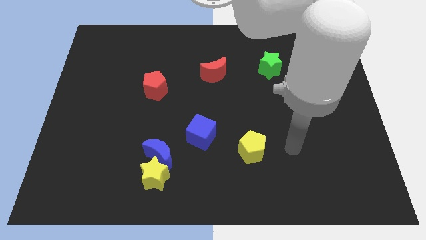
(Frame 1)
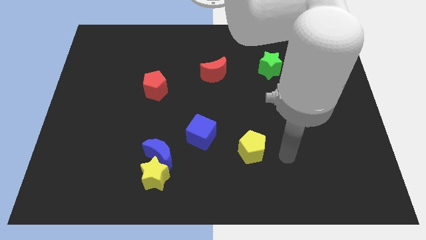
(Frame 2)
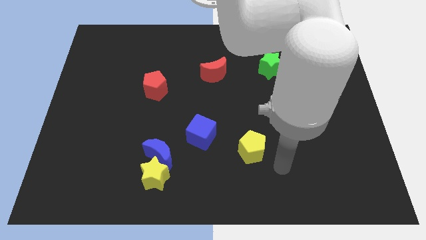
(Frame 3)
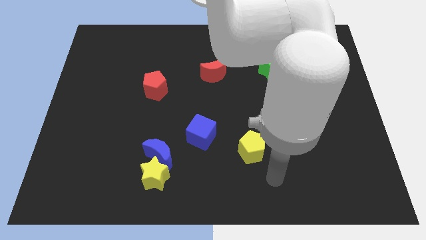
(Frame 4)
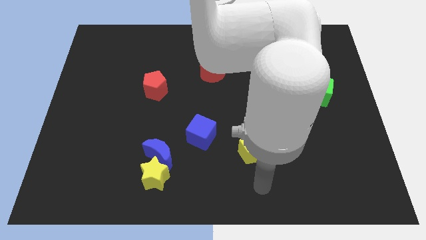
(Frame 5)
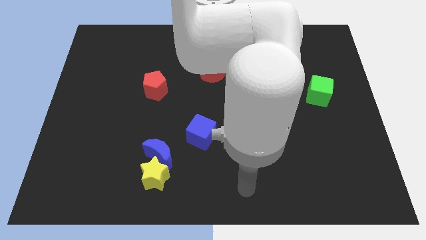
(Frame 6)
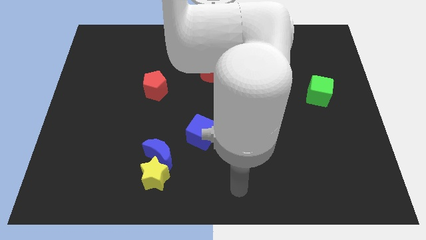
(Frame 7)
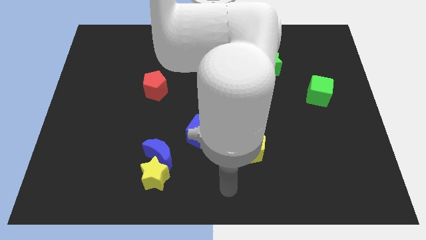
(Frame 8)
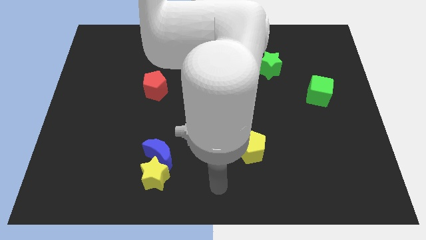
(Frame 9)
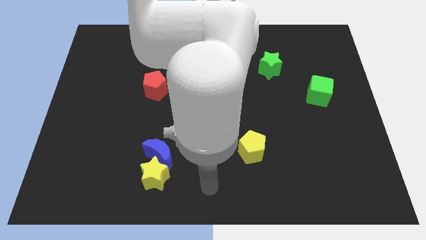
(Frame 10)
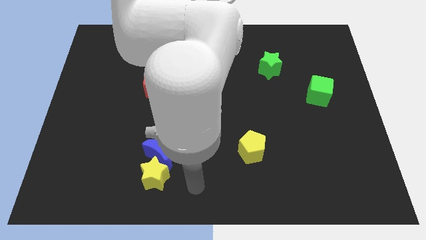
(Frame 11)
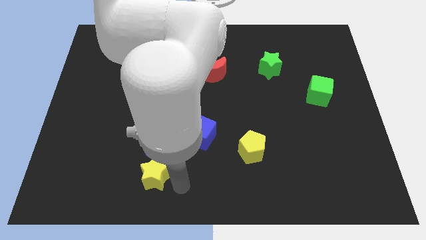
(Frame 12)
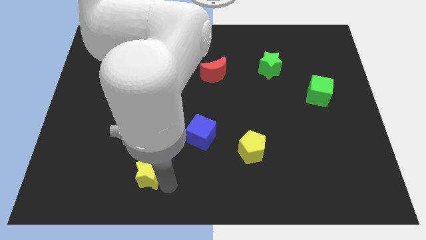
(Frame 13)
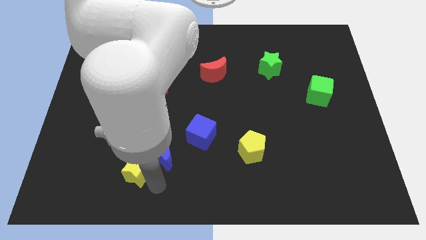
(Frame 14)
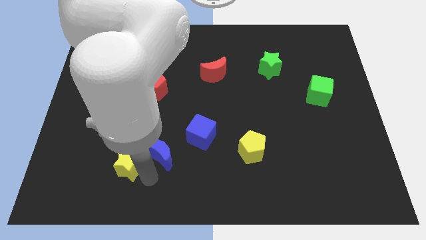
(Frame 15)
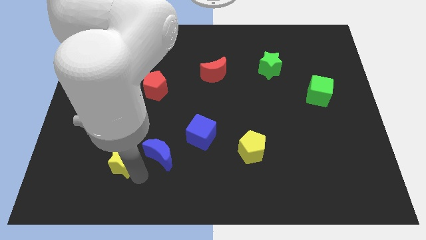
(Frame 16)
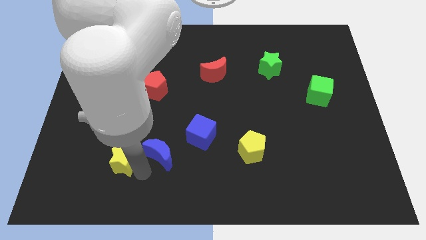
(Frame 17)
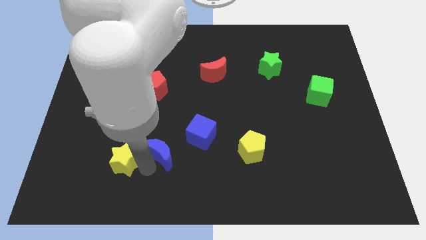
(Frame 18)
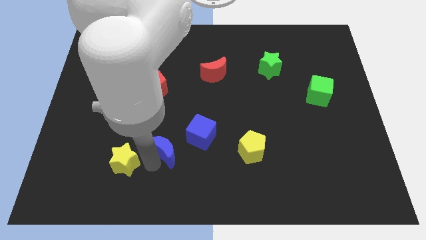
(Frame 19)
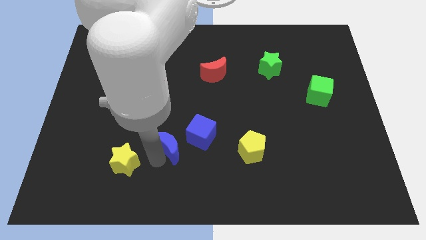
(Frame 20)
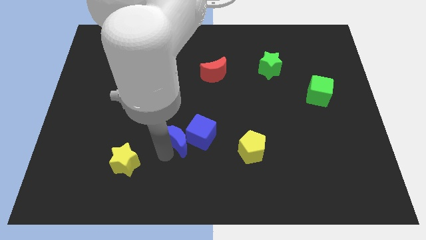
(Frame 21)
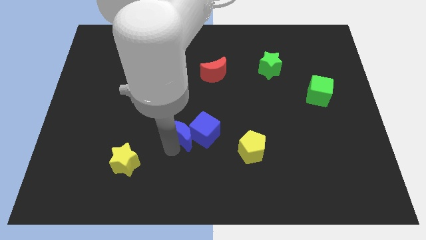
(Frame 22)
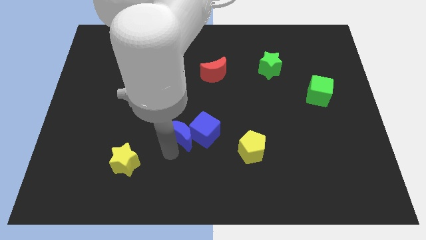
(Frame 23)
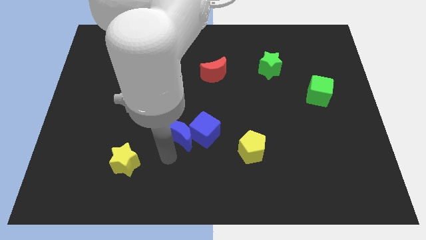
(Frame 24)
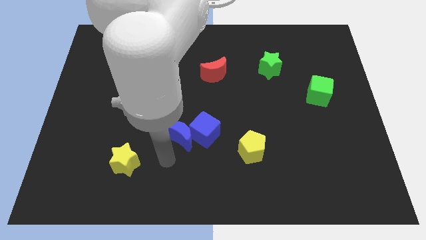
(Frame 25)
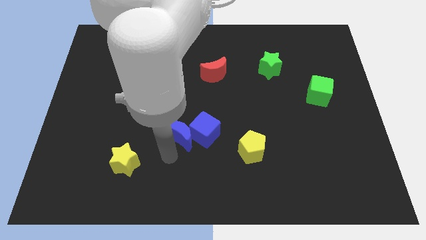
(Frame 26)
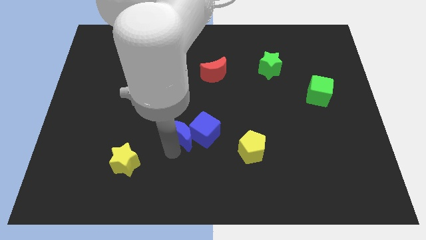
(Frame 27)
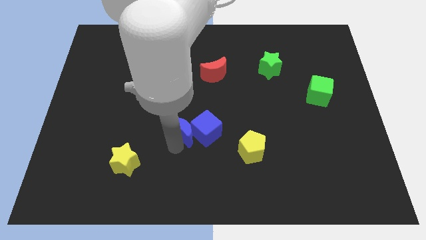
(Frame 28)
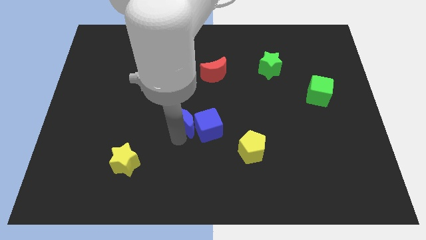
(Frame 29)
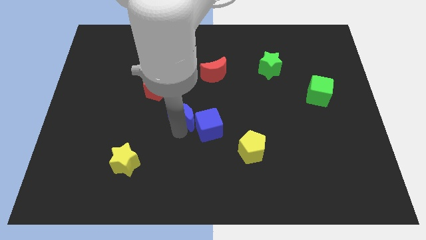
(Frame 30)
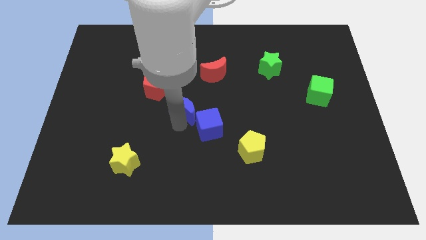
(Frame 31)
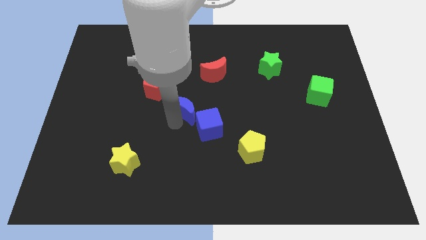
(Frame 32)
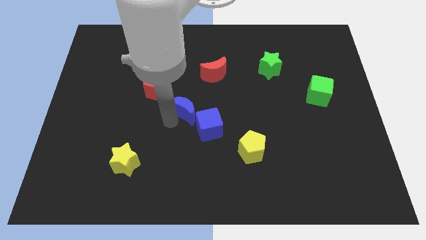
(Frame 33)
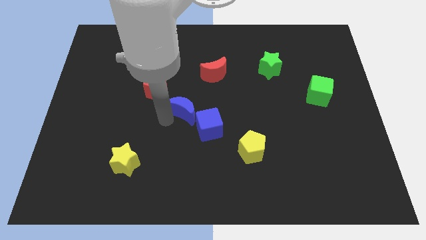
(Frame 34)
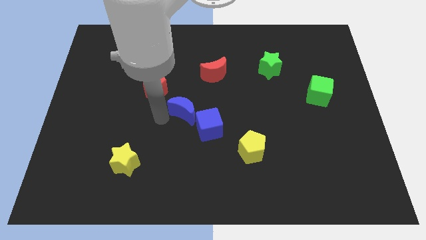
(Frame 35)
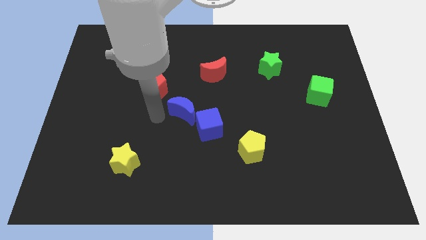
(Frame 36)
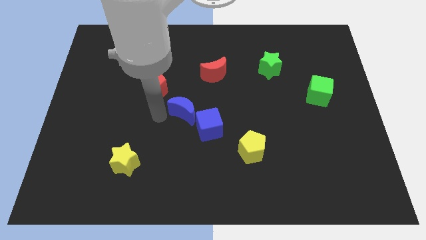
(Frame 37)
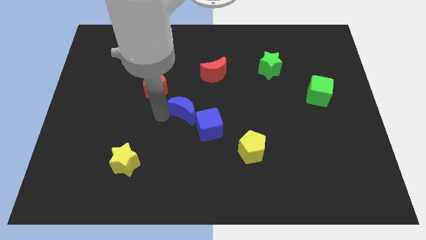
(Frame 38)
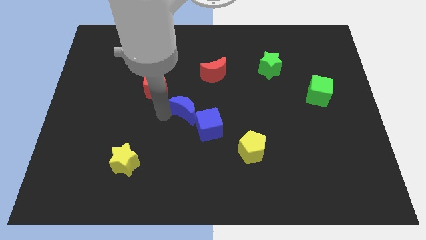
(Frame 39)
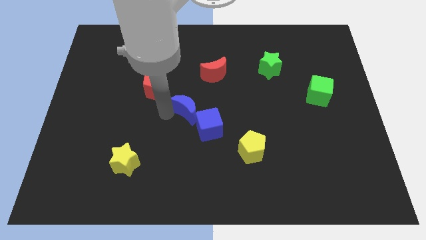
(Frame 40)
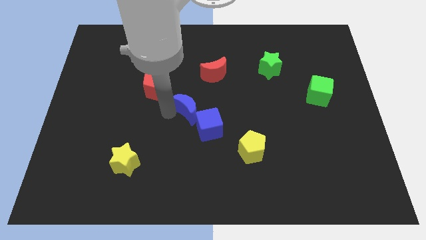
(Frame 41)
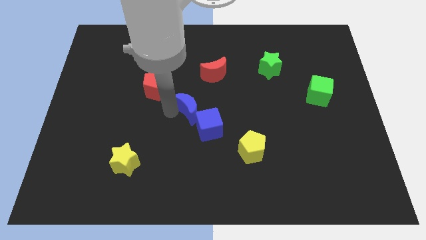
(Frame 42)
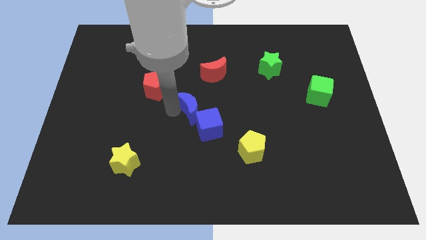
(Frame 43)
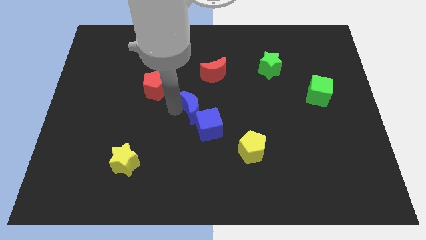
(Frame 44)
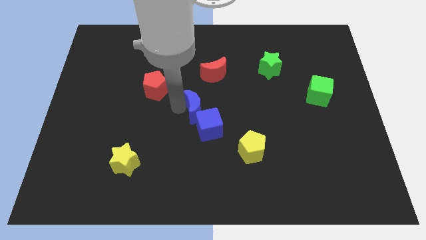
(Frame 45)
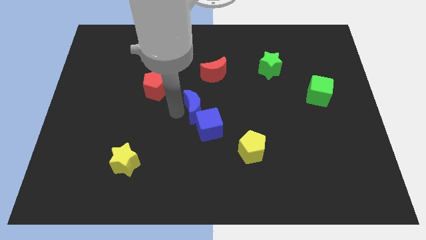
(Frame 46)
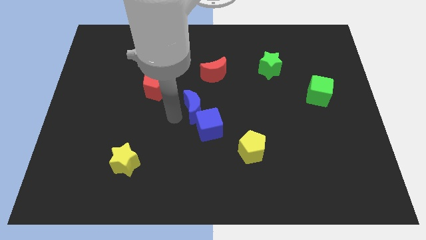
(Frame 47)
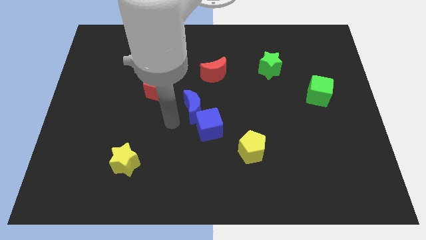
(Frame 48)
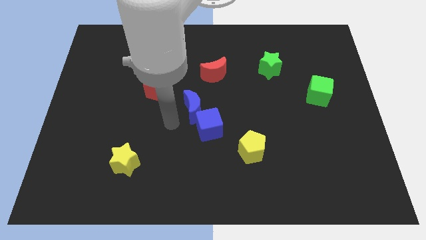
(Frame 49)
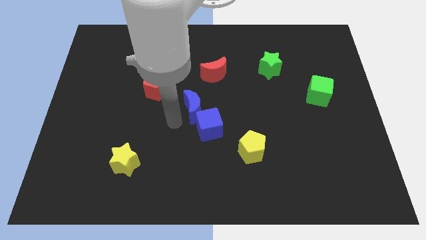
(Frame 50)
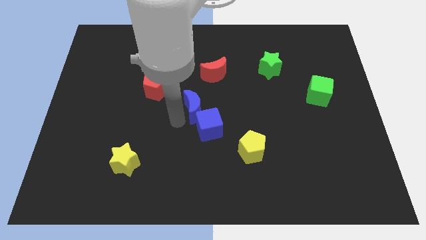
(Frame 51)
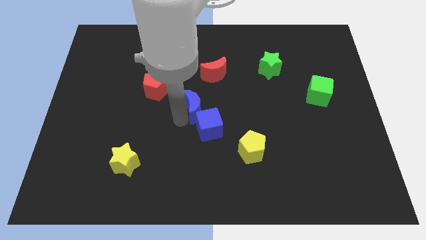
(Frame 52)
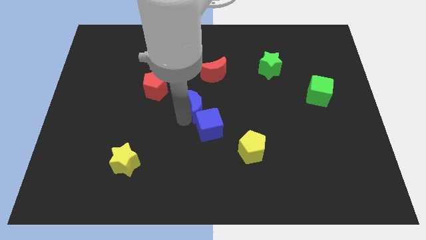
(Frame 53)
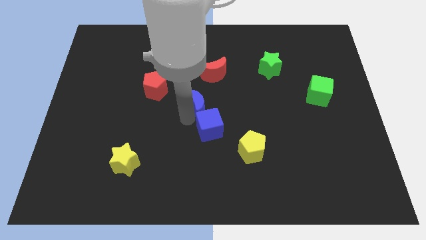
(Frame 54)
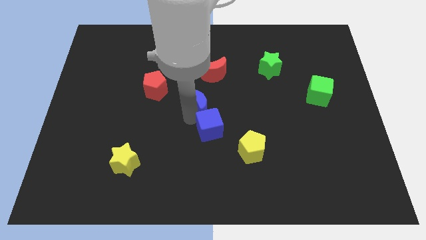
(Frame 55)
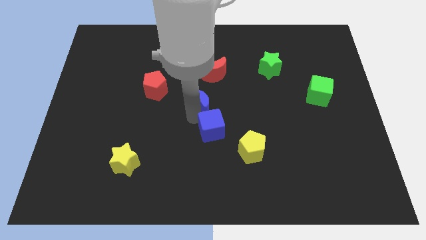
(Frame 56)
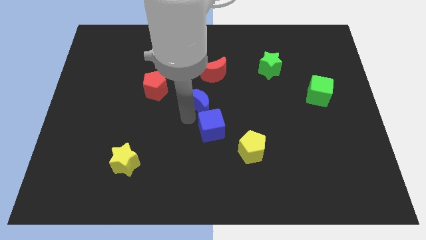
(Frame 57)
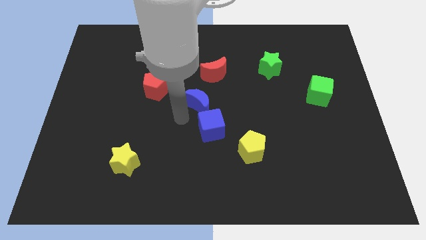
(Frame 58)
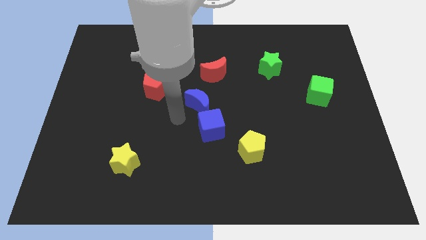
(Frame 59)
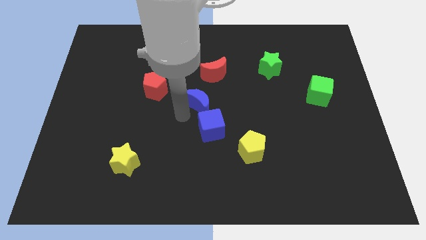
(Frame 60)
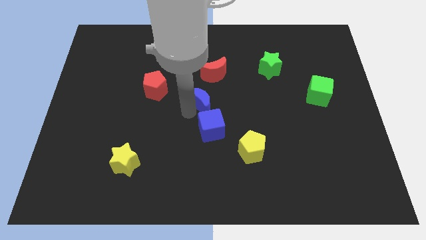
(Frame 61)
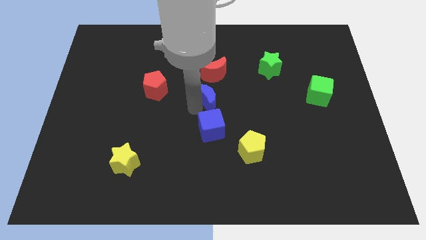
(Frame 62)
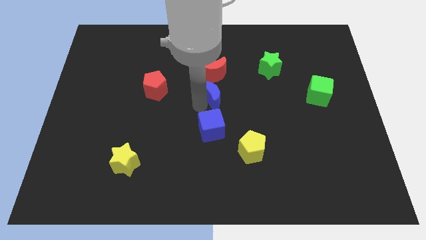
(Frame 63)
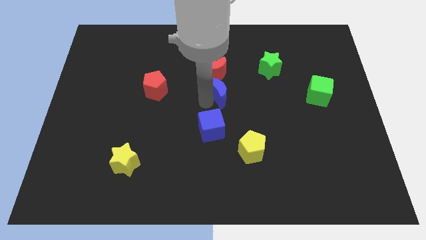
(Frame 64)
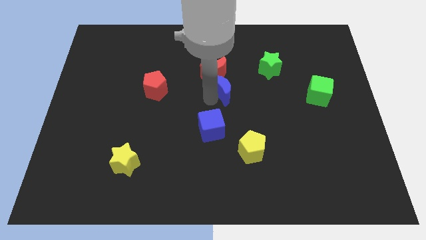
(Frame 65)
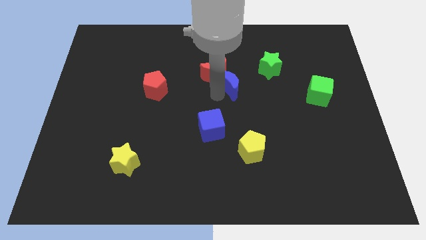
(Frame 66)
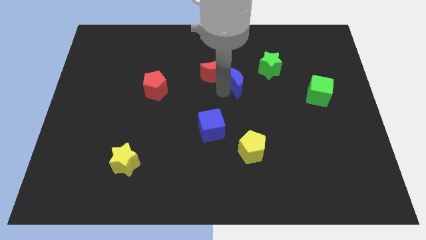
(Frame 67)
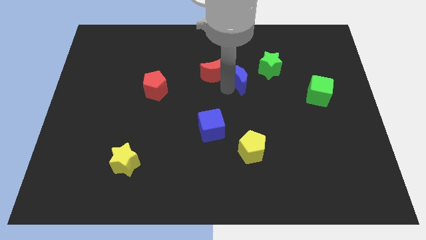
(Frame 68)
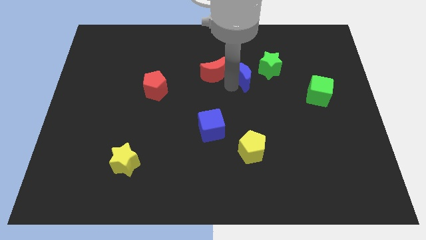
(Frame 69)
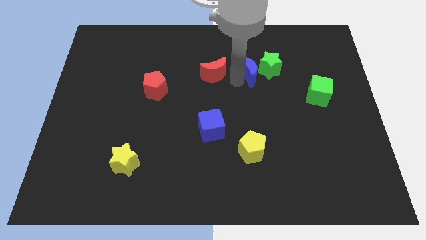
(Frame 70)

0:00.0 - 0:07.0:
push the blue moon towards the green star
